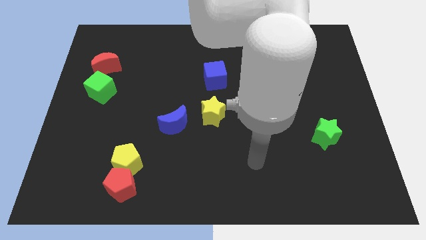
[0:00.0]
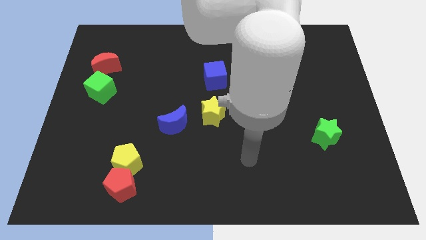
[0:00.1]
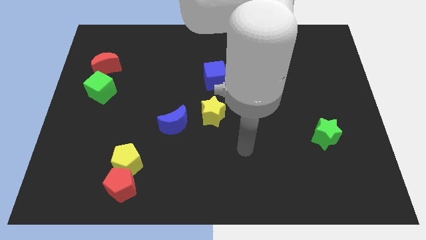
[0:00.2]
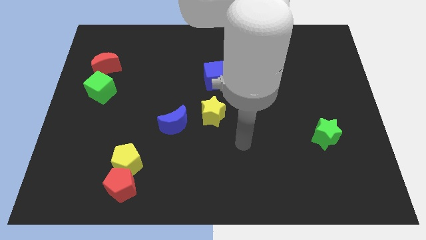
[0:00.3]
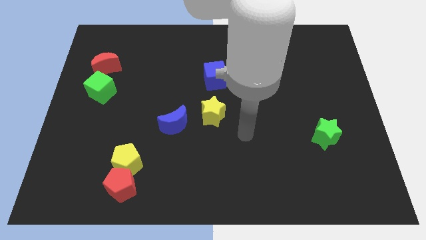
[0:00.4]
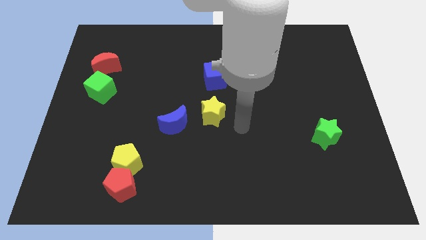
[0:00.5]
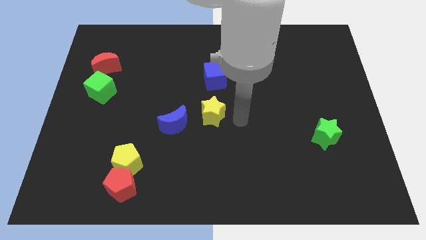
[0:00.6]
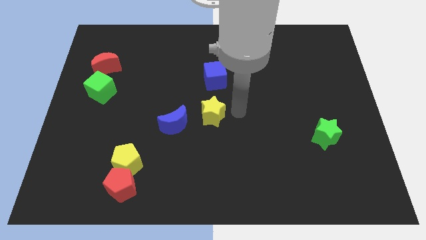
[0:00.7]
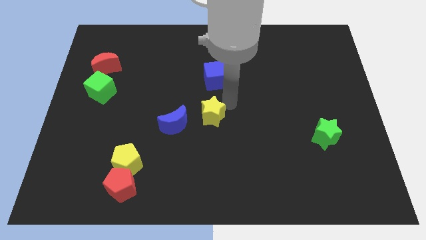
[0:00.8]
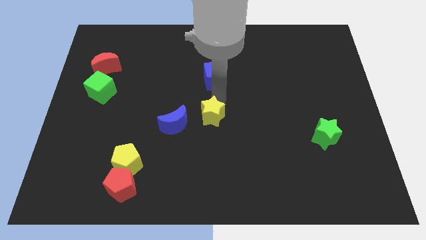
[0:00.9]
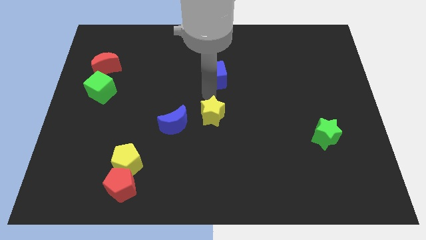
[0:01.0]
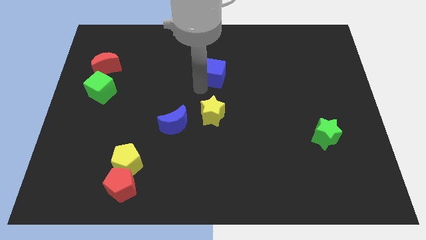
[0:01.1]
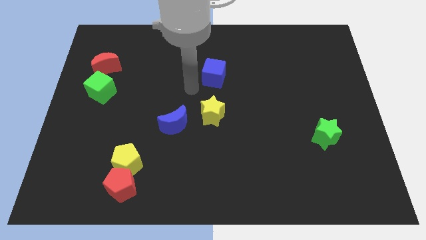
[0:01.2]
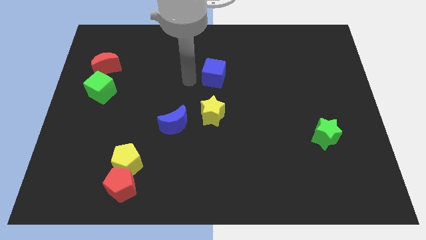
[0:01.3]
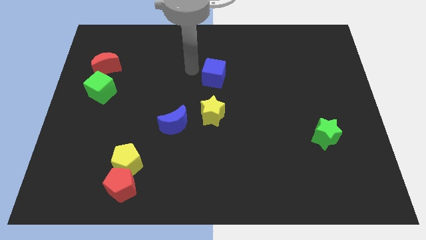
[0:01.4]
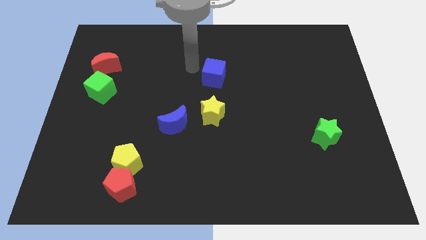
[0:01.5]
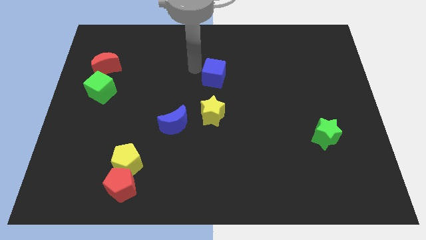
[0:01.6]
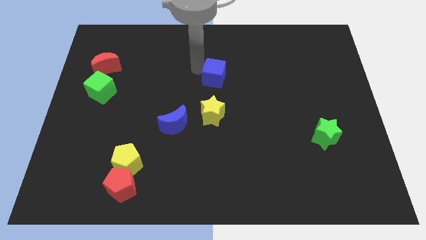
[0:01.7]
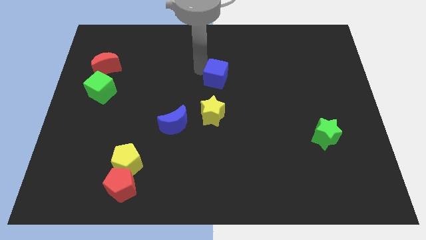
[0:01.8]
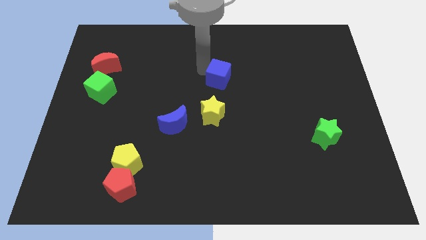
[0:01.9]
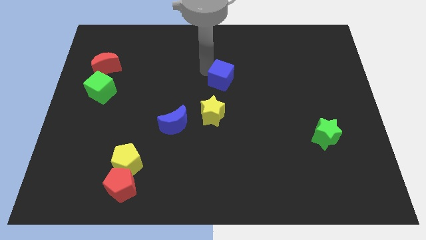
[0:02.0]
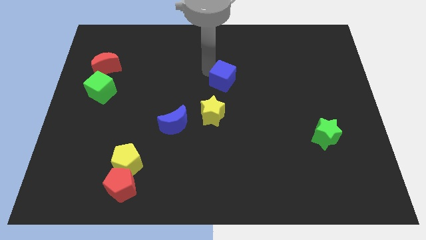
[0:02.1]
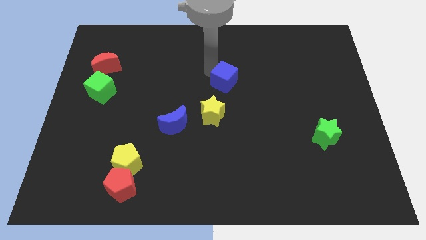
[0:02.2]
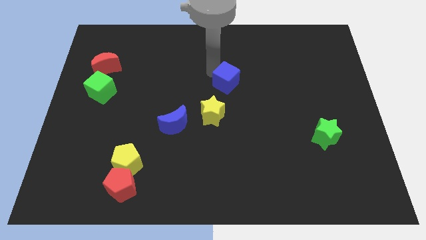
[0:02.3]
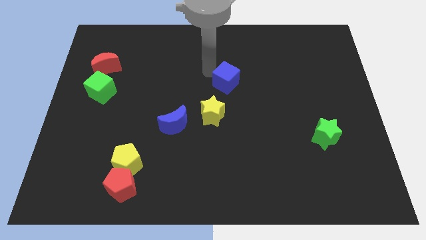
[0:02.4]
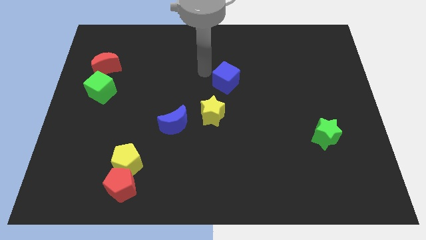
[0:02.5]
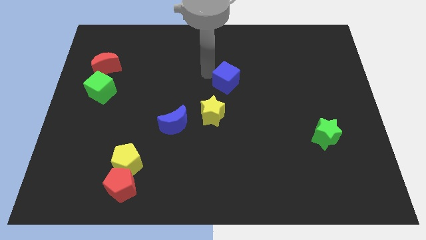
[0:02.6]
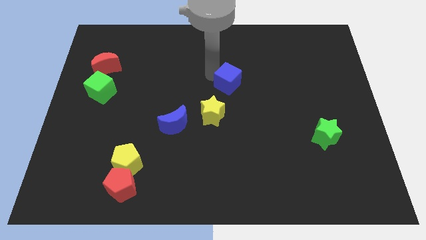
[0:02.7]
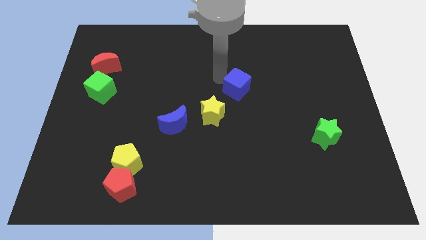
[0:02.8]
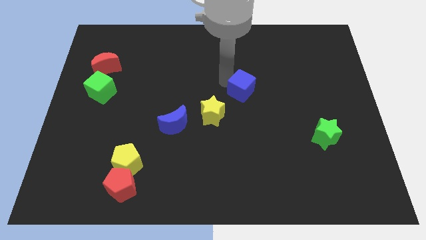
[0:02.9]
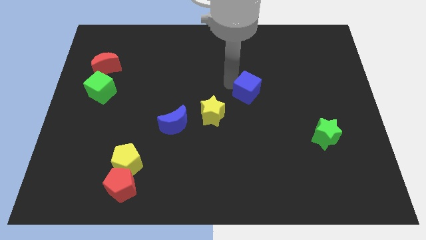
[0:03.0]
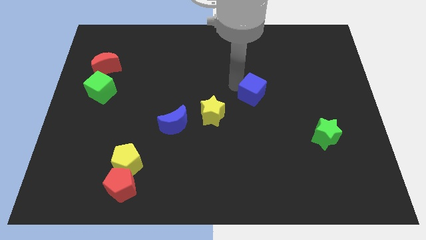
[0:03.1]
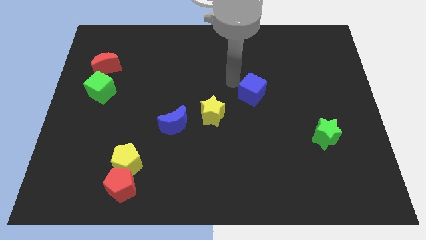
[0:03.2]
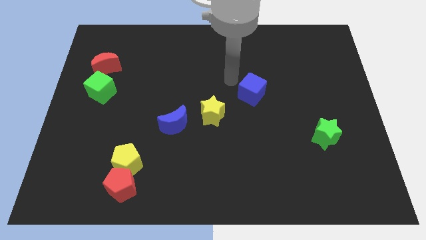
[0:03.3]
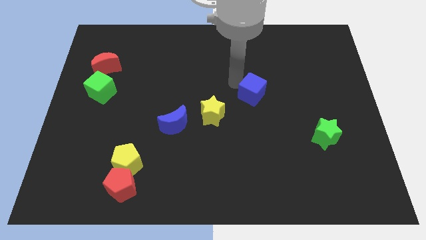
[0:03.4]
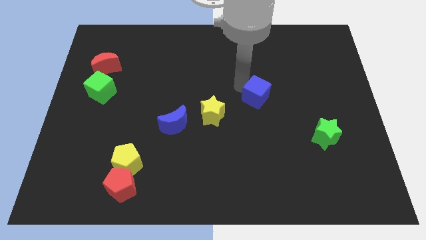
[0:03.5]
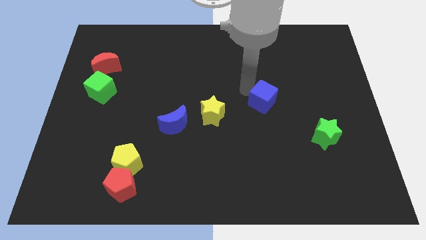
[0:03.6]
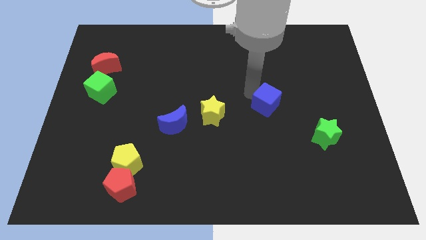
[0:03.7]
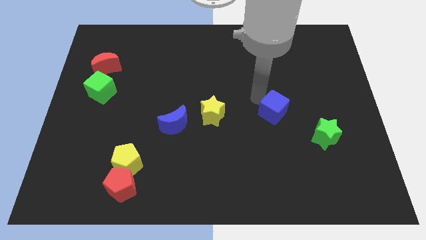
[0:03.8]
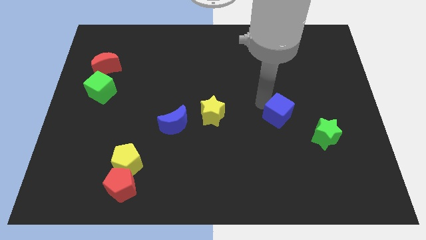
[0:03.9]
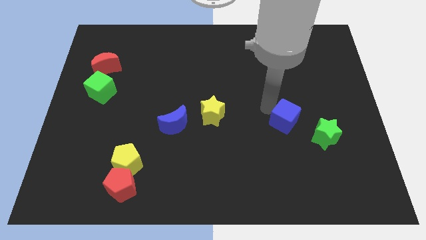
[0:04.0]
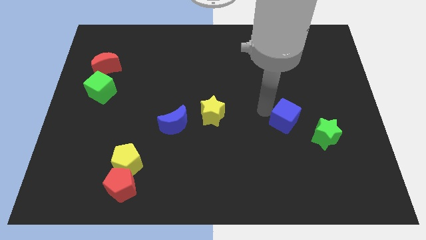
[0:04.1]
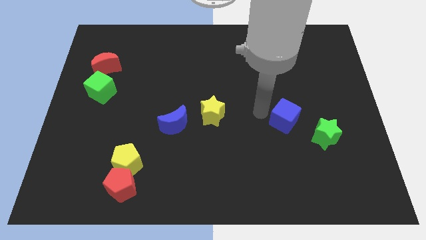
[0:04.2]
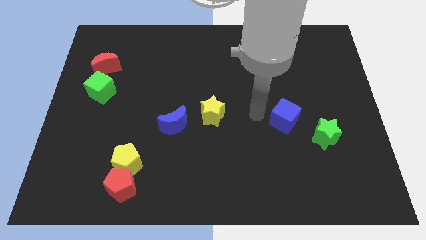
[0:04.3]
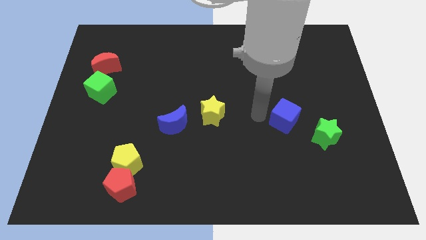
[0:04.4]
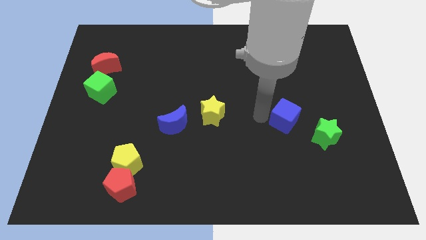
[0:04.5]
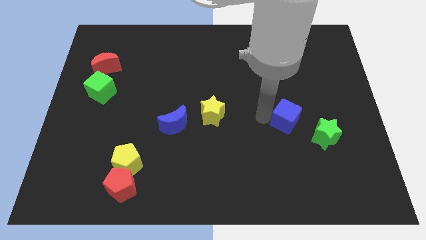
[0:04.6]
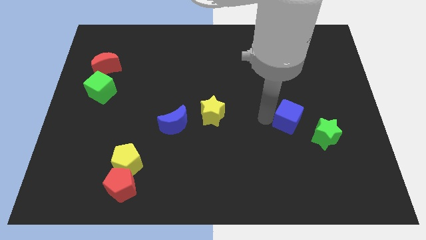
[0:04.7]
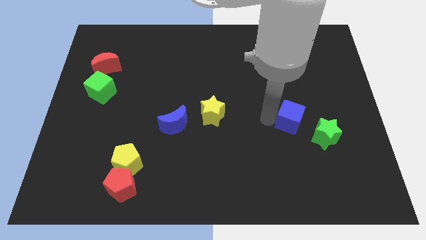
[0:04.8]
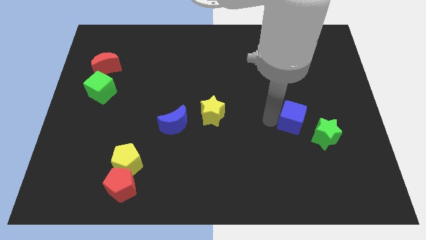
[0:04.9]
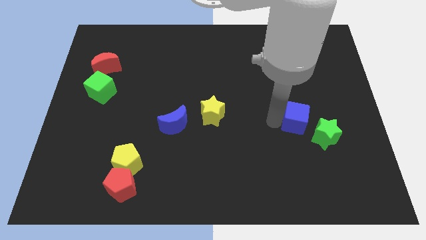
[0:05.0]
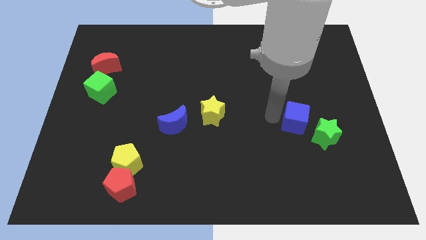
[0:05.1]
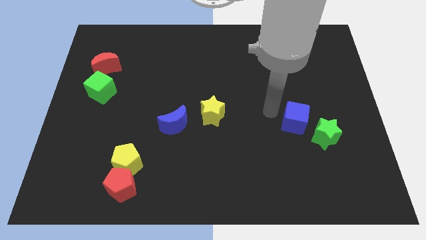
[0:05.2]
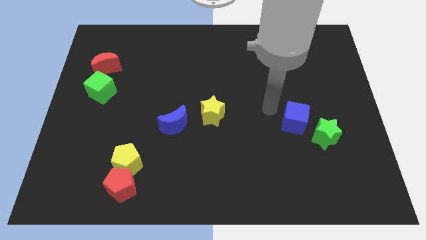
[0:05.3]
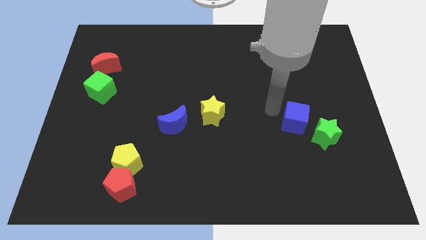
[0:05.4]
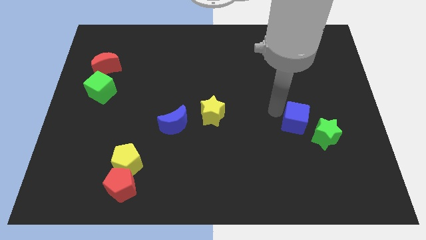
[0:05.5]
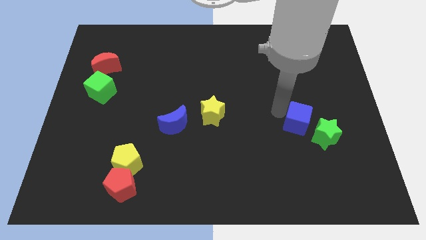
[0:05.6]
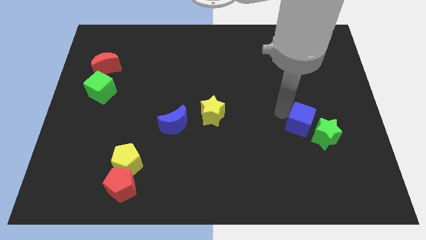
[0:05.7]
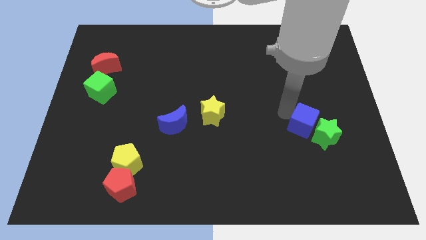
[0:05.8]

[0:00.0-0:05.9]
push the blue cube close to the green star

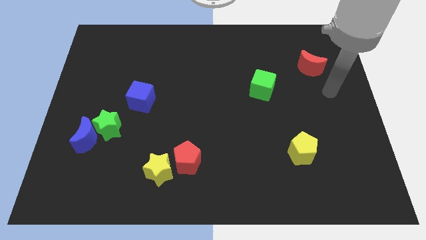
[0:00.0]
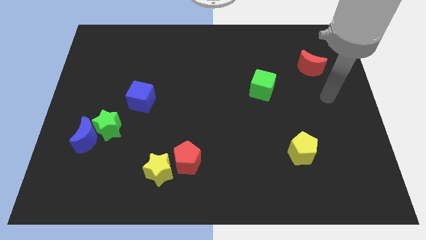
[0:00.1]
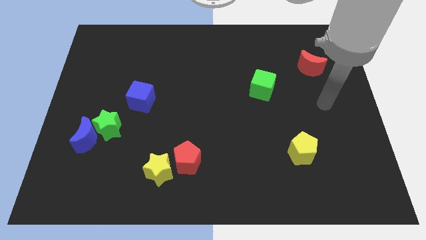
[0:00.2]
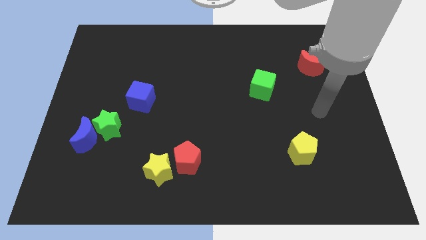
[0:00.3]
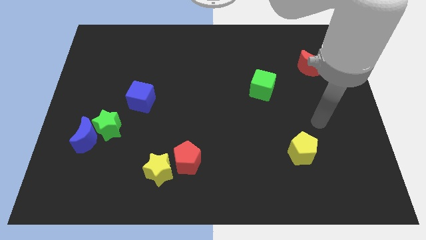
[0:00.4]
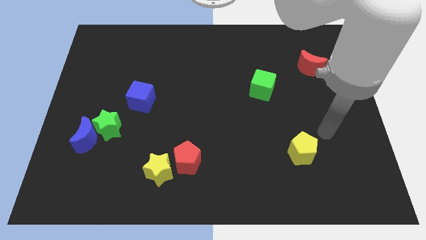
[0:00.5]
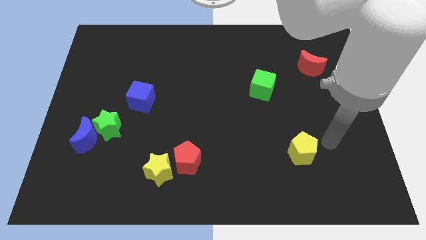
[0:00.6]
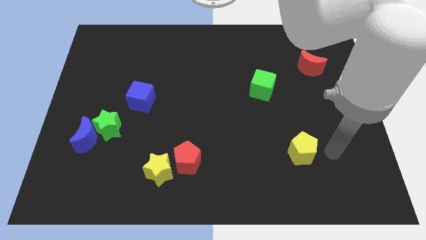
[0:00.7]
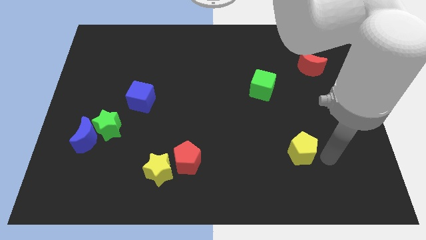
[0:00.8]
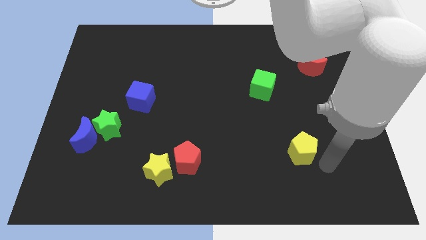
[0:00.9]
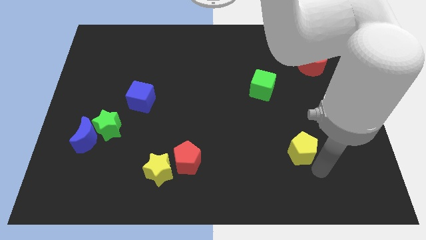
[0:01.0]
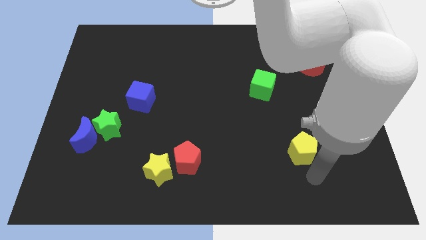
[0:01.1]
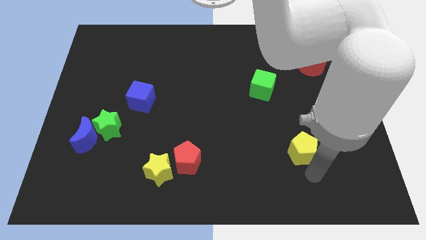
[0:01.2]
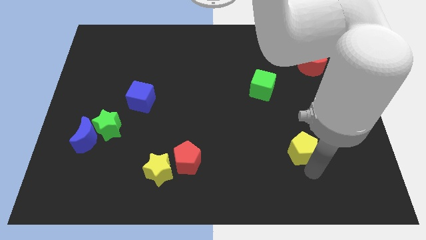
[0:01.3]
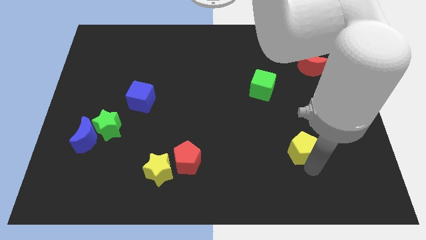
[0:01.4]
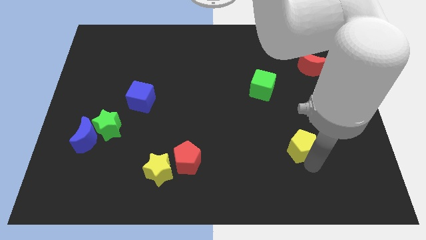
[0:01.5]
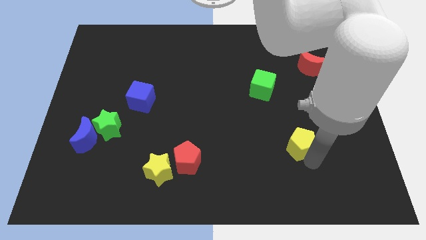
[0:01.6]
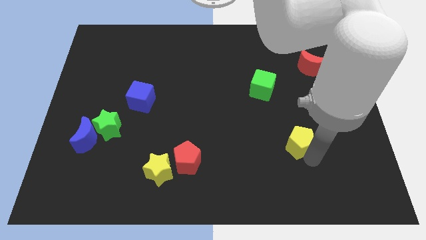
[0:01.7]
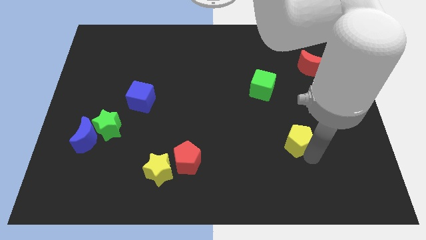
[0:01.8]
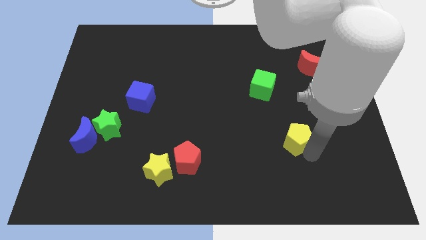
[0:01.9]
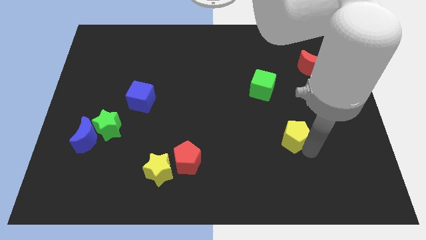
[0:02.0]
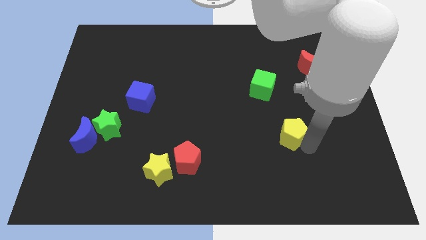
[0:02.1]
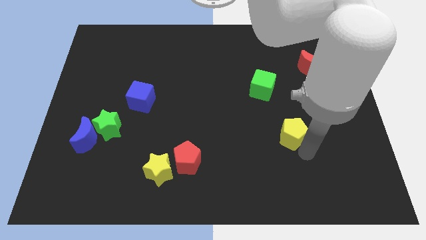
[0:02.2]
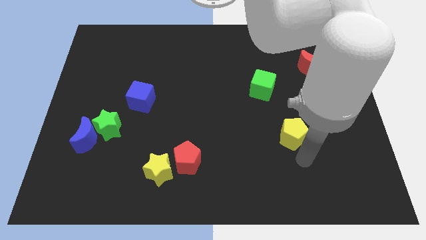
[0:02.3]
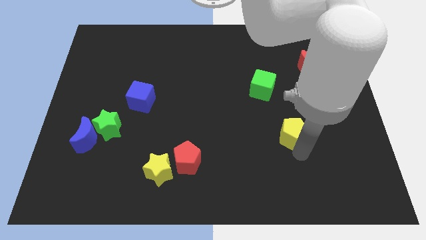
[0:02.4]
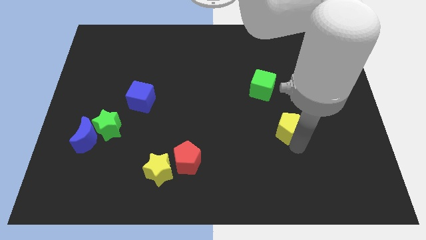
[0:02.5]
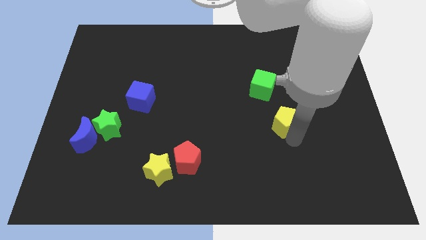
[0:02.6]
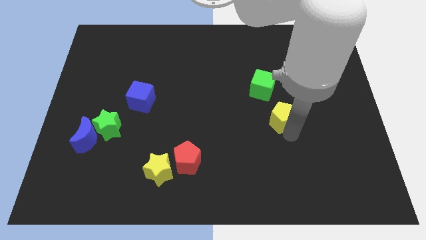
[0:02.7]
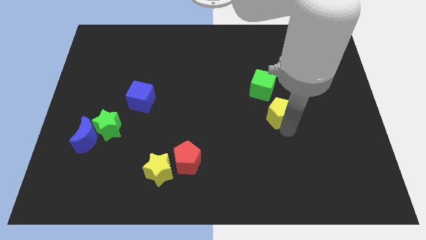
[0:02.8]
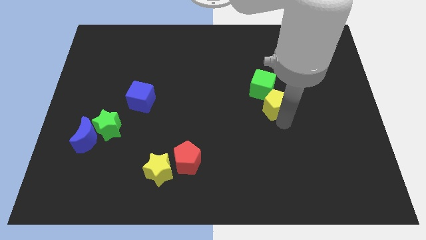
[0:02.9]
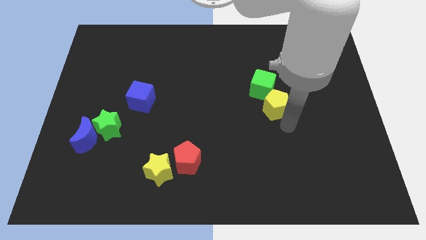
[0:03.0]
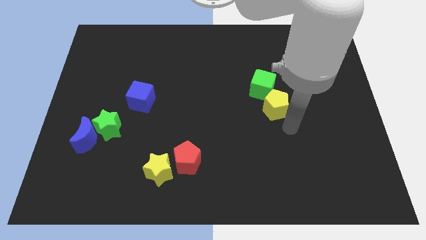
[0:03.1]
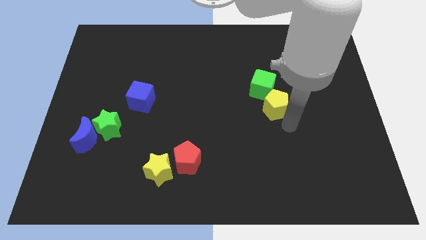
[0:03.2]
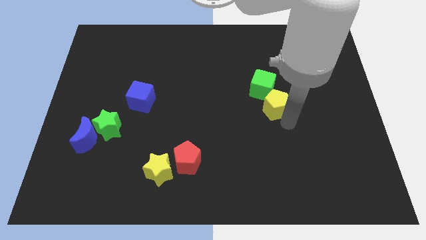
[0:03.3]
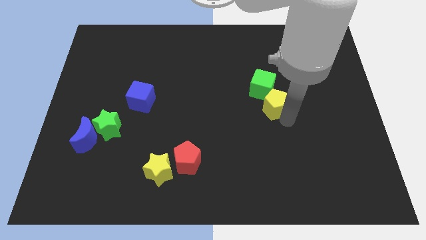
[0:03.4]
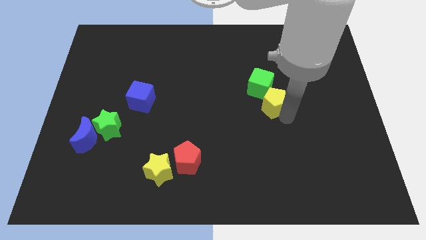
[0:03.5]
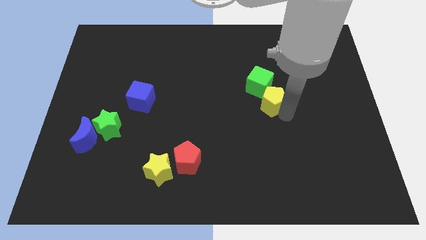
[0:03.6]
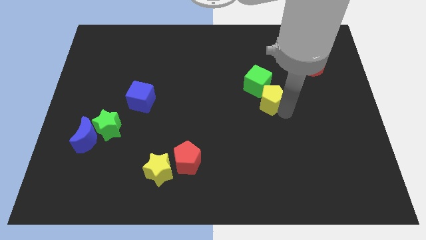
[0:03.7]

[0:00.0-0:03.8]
move the yellow pentagon to the green cube
